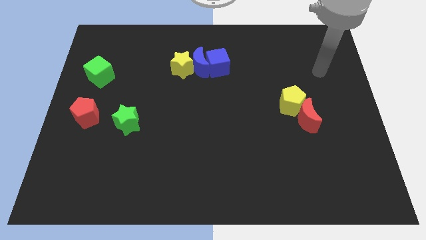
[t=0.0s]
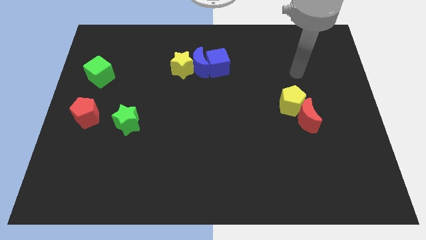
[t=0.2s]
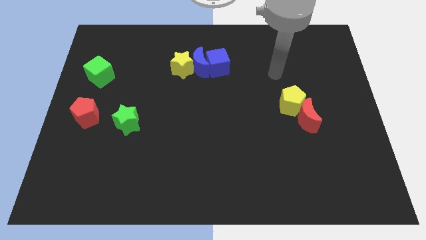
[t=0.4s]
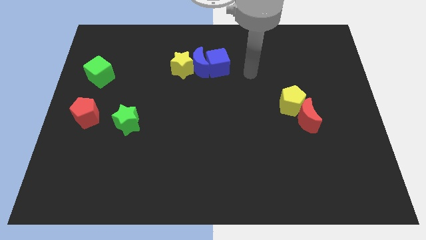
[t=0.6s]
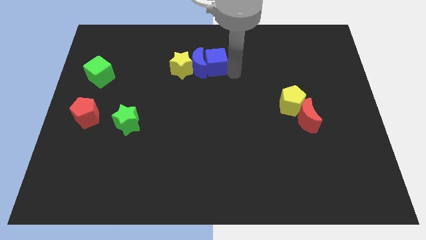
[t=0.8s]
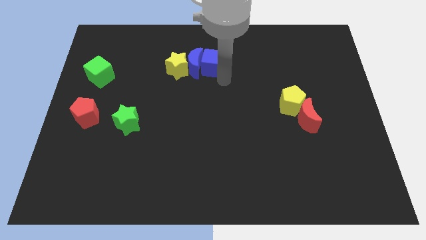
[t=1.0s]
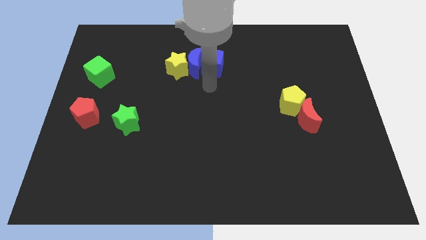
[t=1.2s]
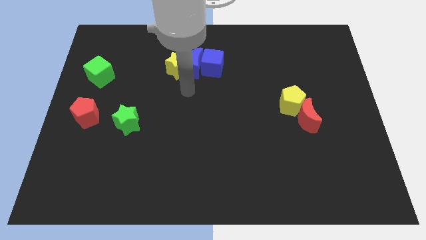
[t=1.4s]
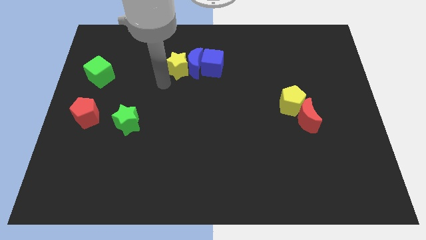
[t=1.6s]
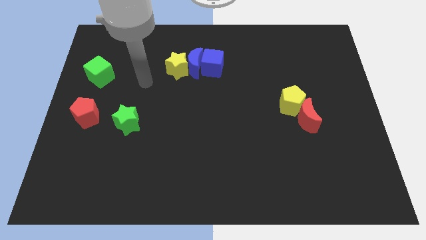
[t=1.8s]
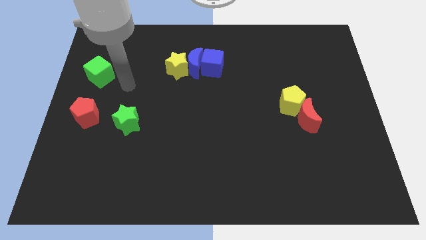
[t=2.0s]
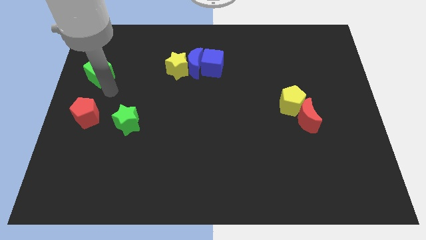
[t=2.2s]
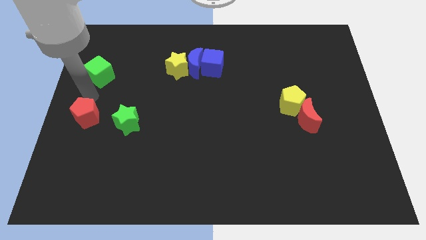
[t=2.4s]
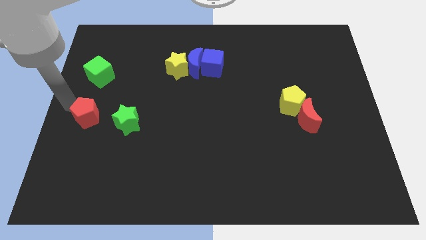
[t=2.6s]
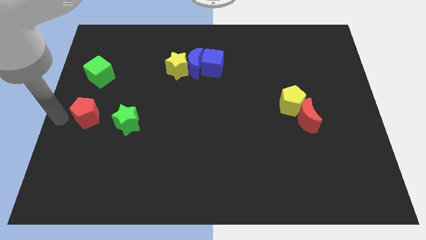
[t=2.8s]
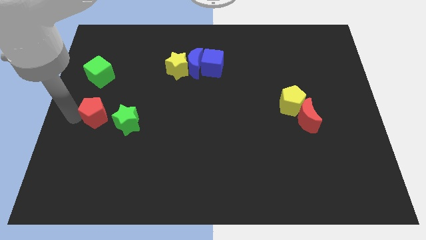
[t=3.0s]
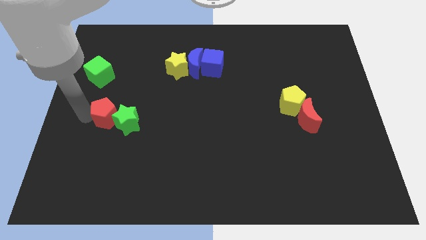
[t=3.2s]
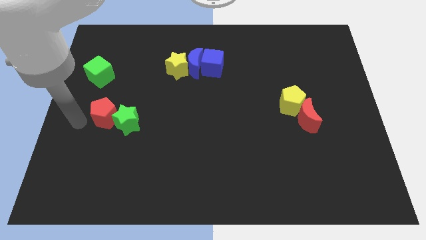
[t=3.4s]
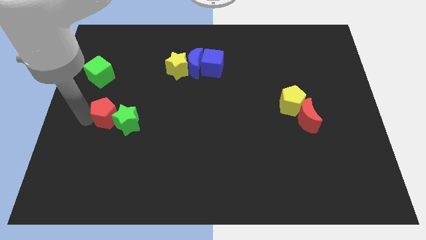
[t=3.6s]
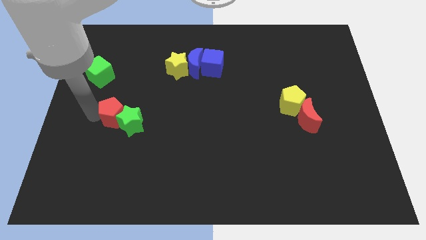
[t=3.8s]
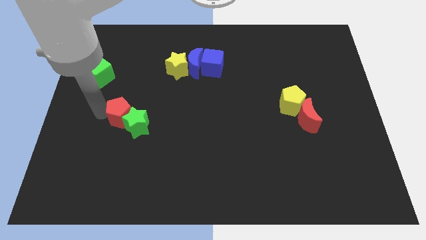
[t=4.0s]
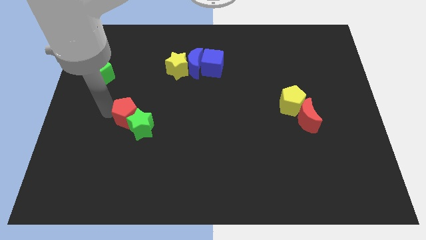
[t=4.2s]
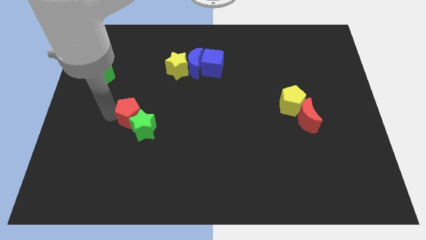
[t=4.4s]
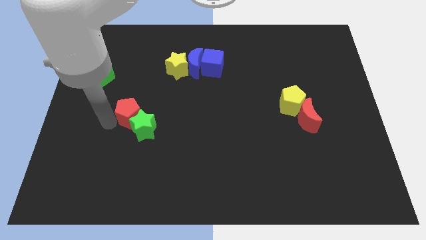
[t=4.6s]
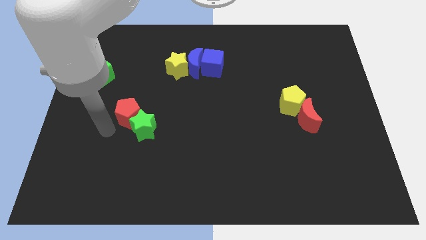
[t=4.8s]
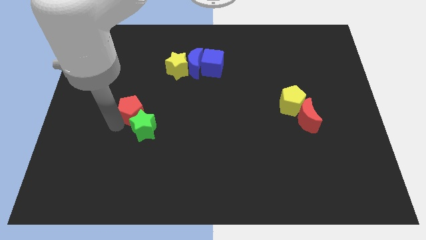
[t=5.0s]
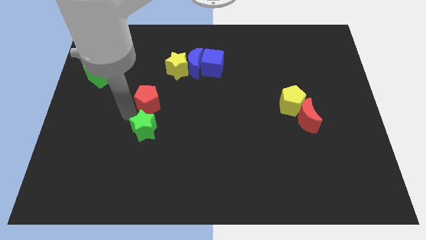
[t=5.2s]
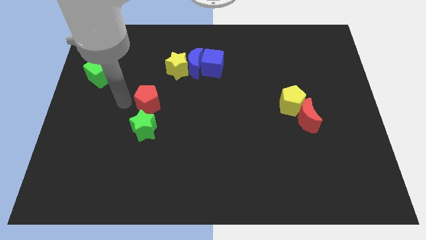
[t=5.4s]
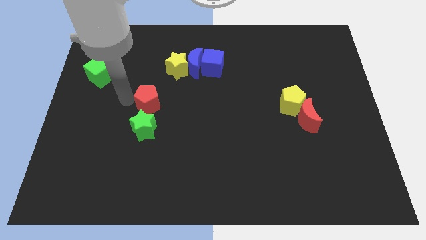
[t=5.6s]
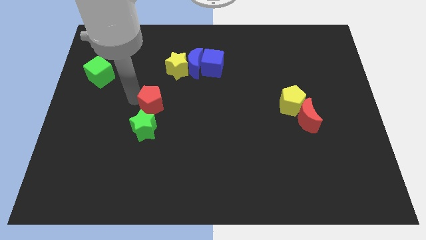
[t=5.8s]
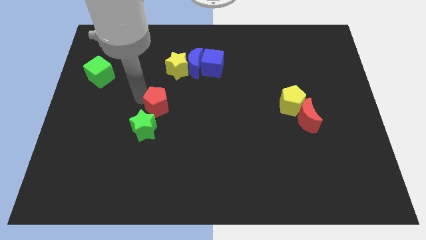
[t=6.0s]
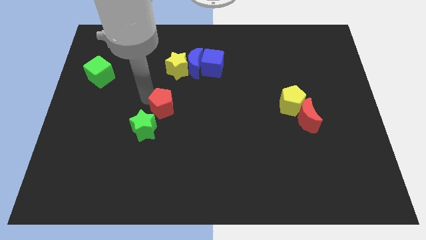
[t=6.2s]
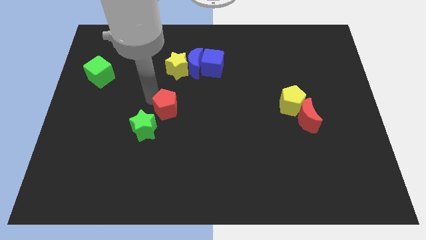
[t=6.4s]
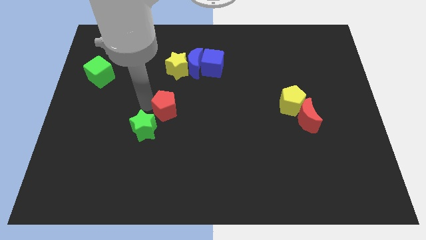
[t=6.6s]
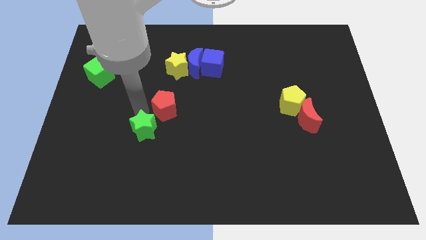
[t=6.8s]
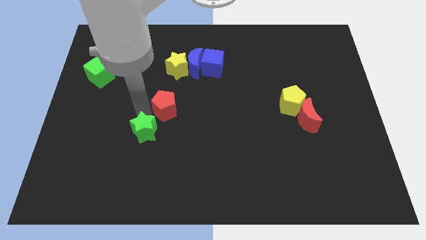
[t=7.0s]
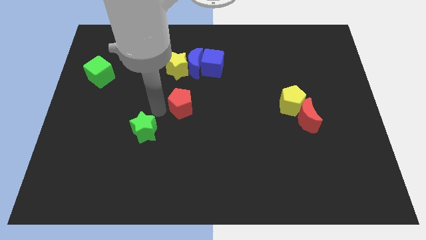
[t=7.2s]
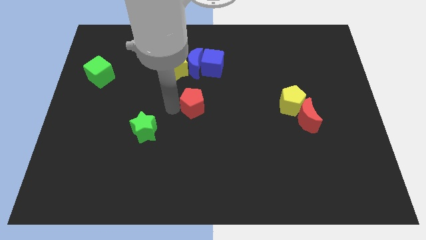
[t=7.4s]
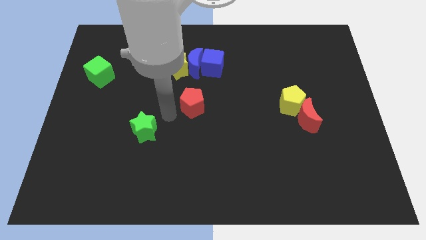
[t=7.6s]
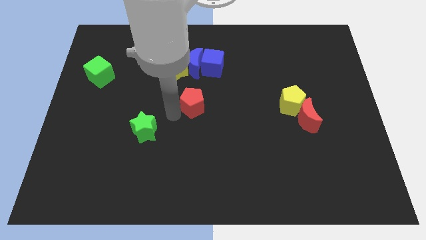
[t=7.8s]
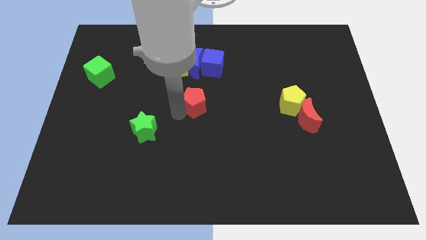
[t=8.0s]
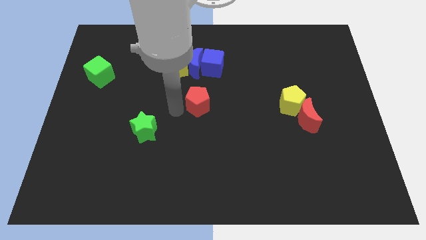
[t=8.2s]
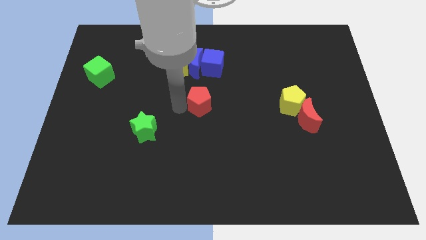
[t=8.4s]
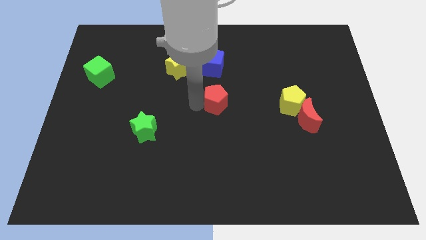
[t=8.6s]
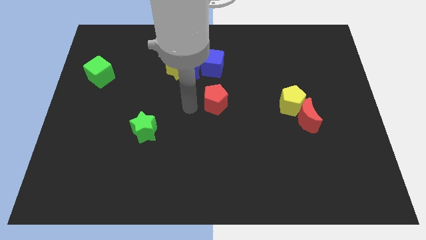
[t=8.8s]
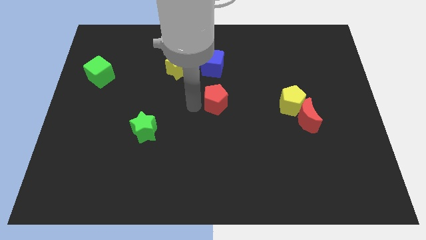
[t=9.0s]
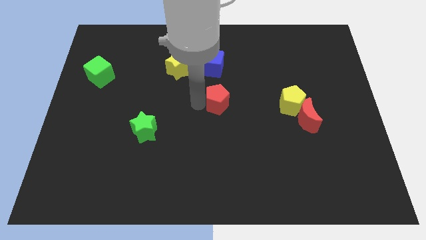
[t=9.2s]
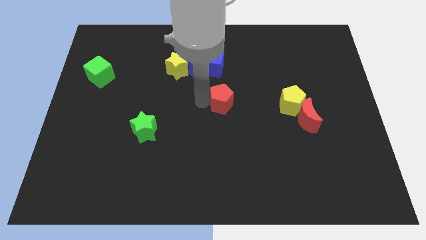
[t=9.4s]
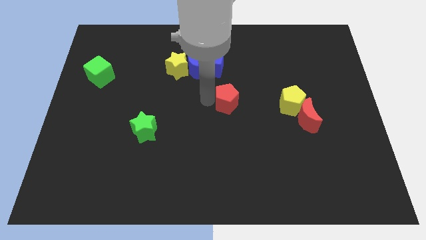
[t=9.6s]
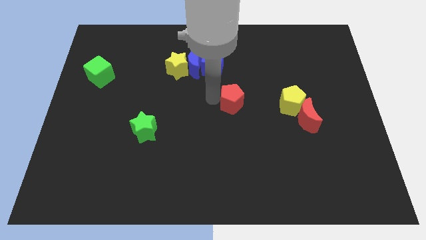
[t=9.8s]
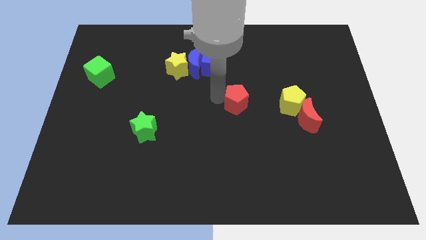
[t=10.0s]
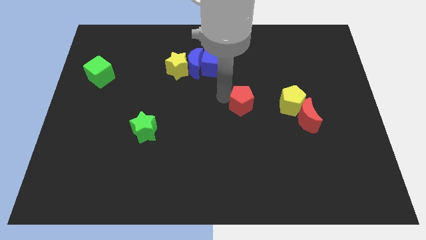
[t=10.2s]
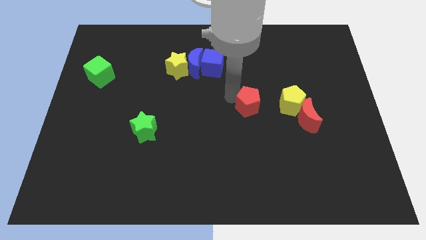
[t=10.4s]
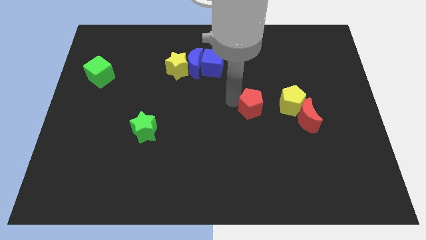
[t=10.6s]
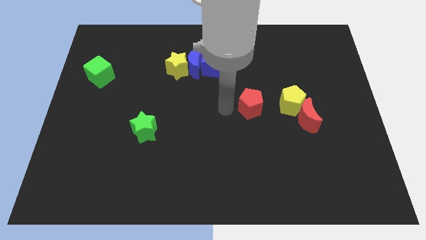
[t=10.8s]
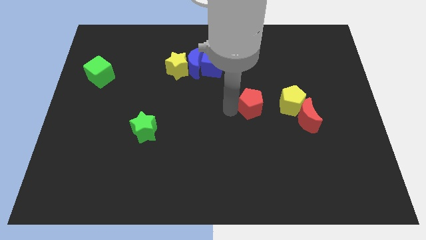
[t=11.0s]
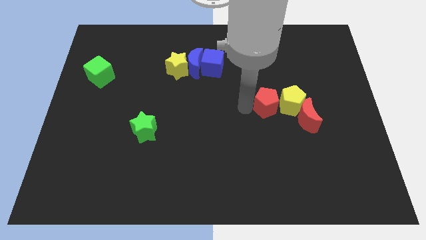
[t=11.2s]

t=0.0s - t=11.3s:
slide the red pentagon to the top left of the red moon

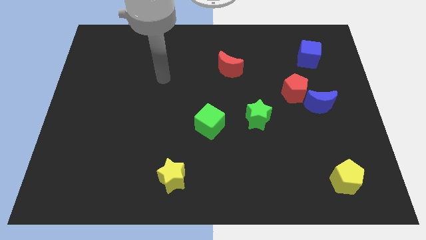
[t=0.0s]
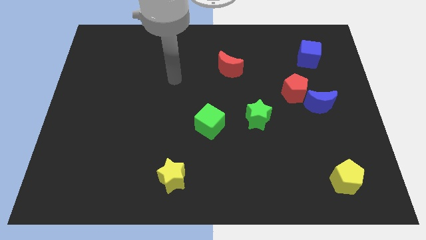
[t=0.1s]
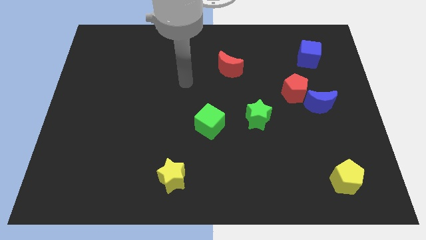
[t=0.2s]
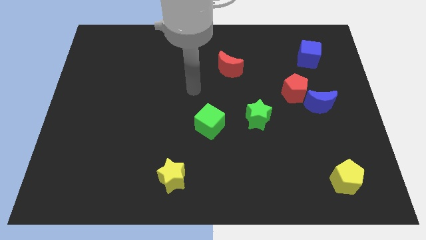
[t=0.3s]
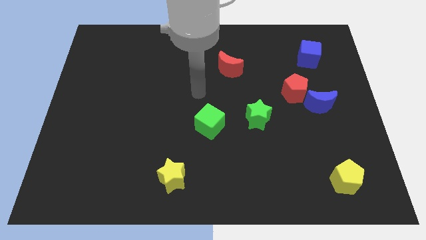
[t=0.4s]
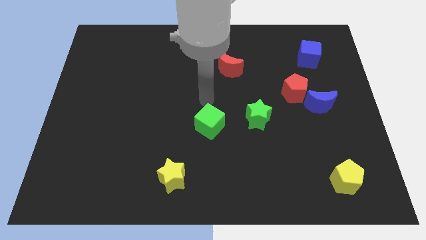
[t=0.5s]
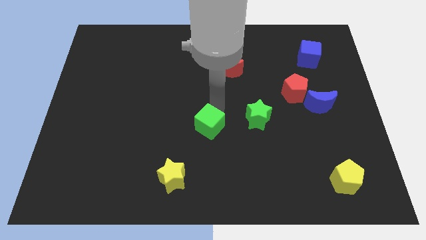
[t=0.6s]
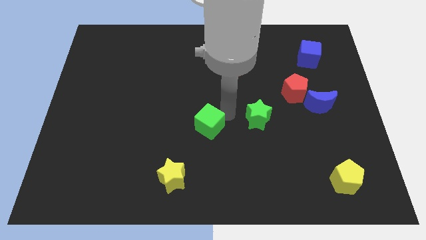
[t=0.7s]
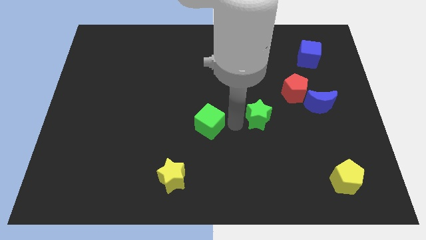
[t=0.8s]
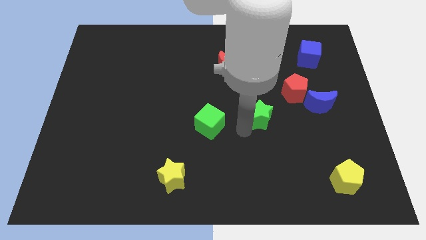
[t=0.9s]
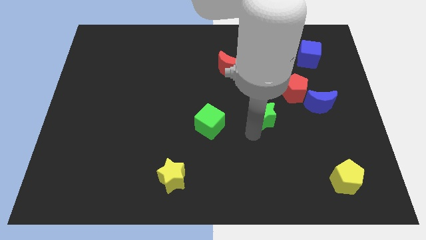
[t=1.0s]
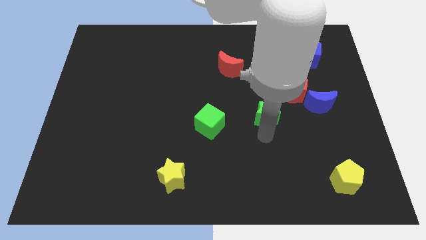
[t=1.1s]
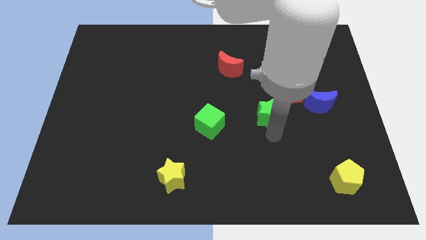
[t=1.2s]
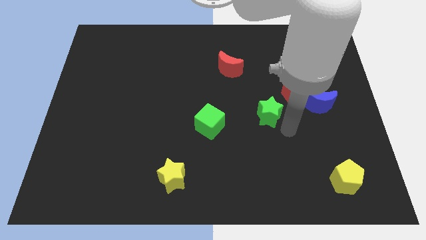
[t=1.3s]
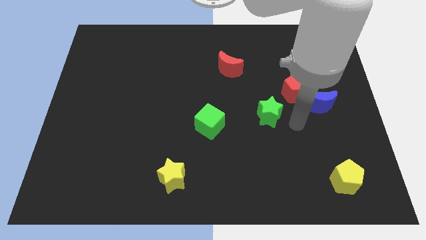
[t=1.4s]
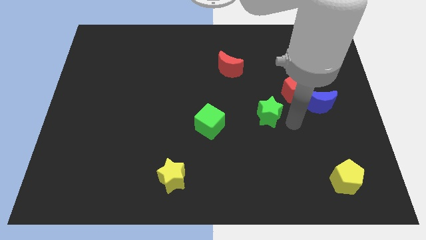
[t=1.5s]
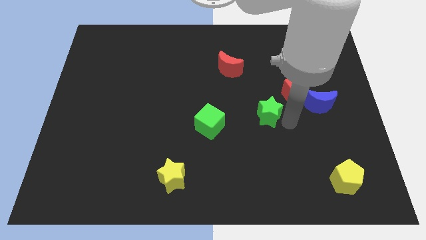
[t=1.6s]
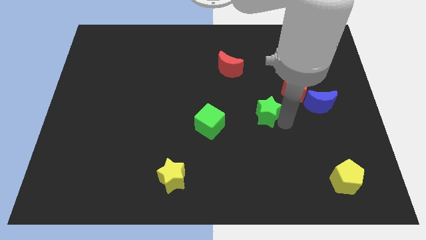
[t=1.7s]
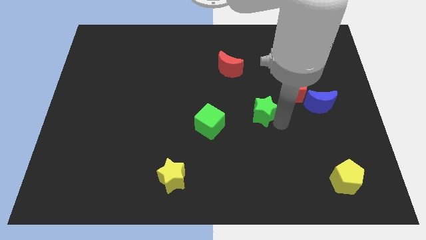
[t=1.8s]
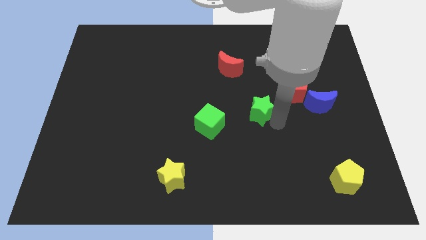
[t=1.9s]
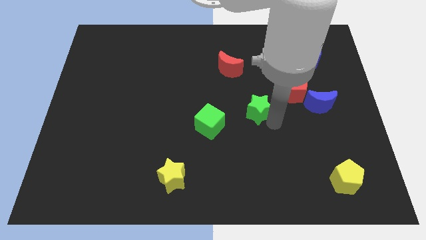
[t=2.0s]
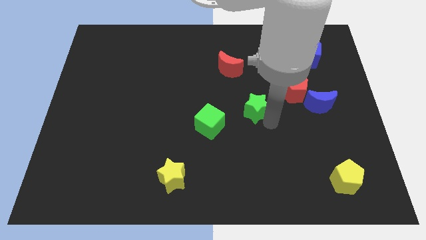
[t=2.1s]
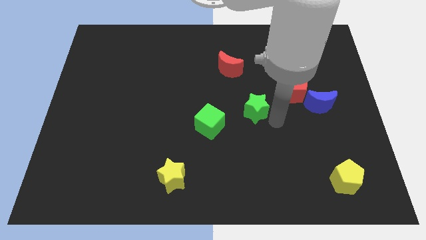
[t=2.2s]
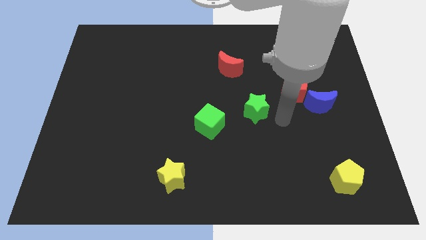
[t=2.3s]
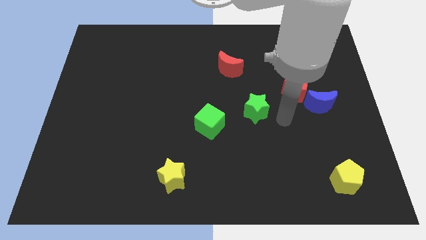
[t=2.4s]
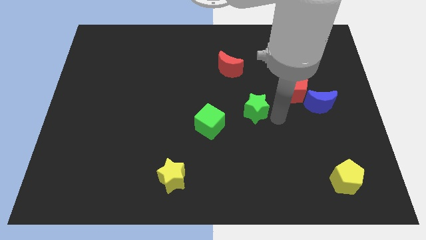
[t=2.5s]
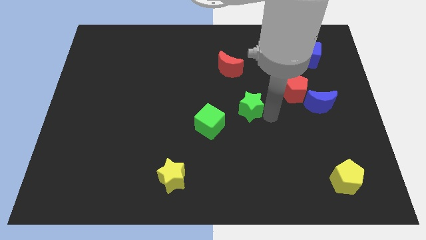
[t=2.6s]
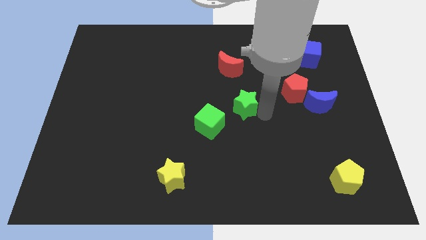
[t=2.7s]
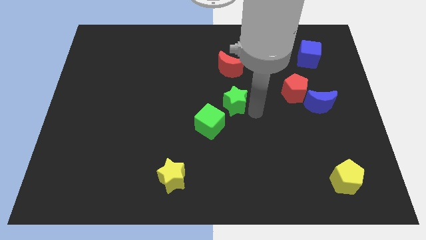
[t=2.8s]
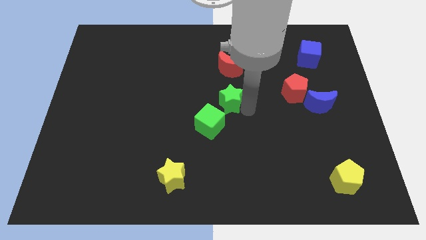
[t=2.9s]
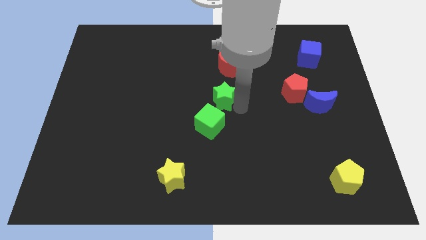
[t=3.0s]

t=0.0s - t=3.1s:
slide the green star above the green cube
